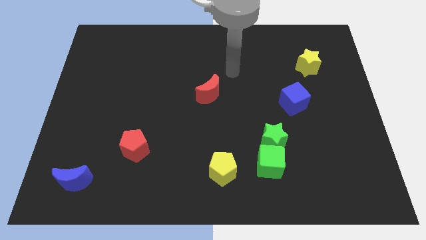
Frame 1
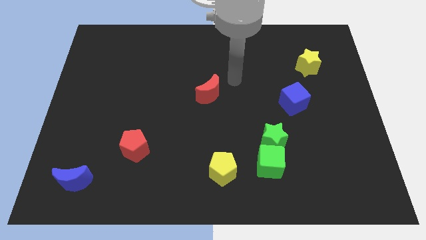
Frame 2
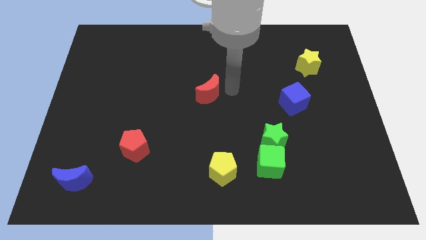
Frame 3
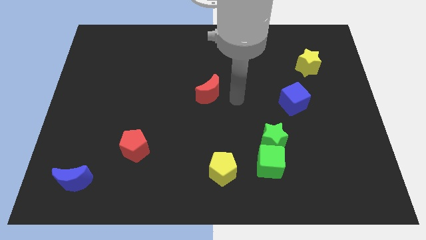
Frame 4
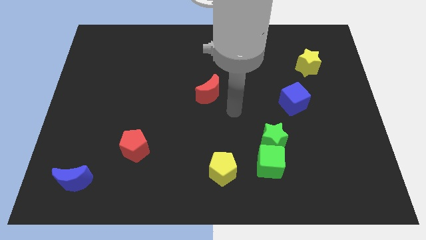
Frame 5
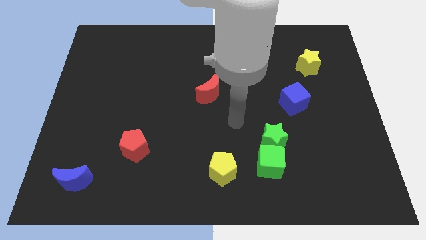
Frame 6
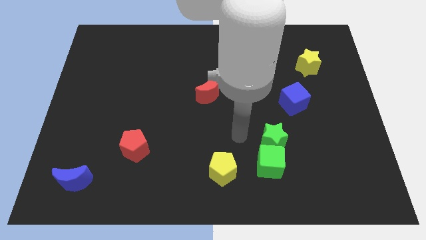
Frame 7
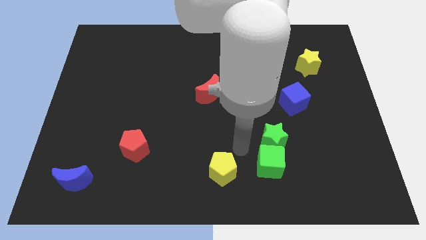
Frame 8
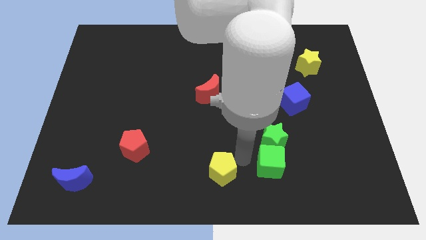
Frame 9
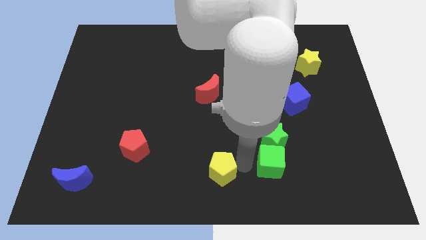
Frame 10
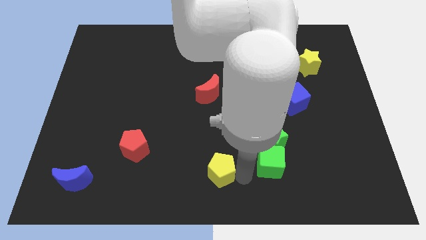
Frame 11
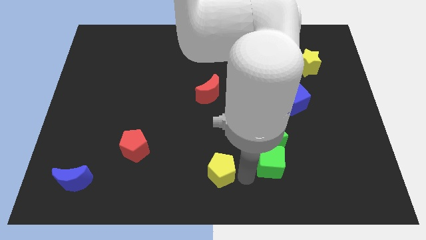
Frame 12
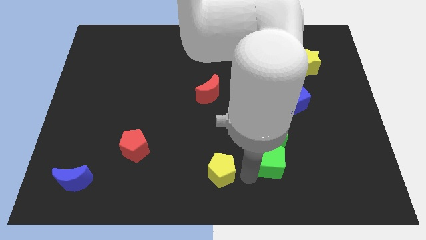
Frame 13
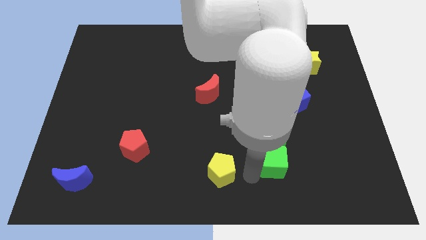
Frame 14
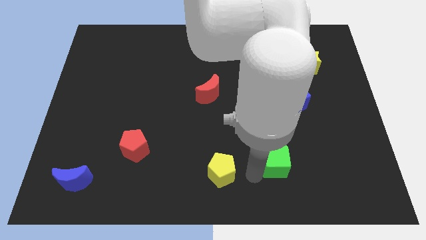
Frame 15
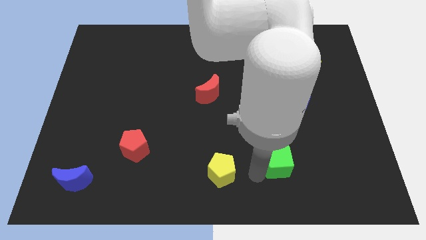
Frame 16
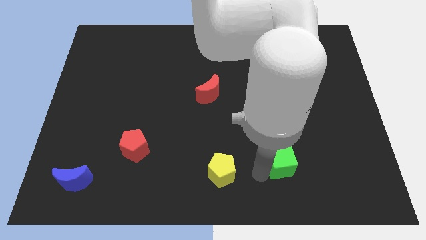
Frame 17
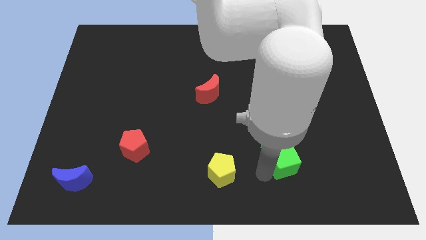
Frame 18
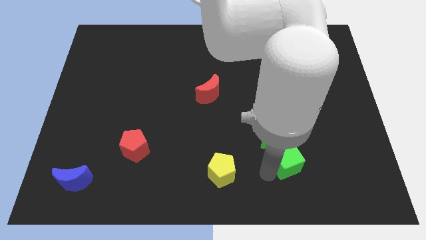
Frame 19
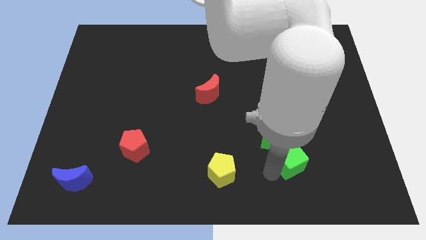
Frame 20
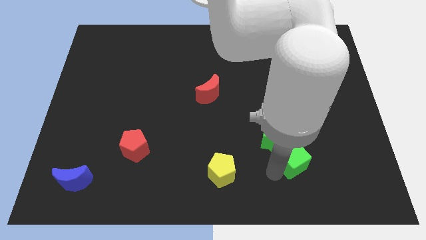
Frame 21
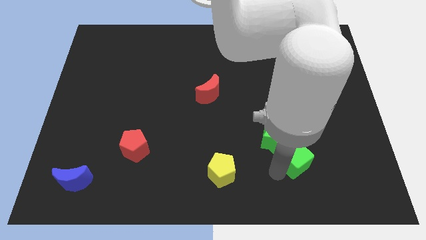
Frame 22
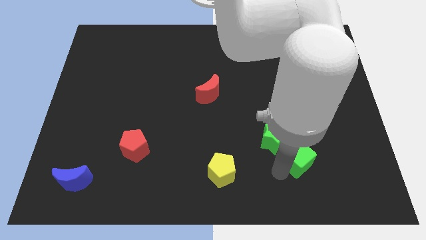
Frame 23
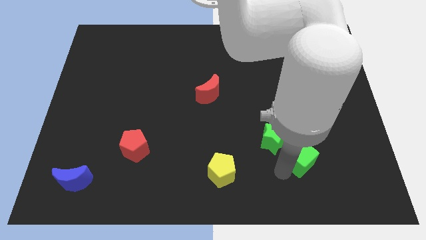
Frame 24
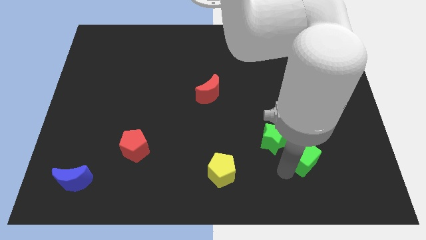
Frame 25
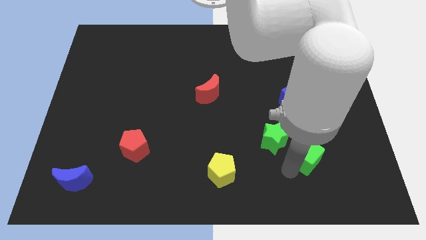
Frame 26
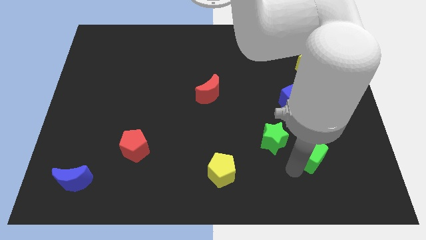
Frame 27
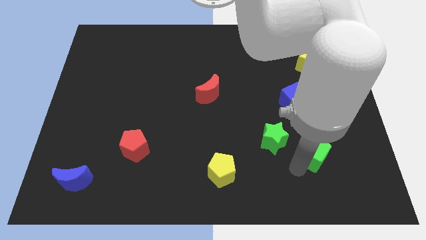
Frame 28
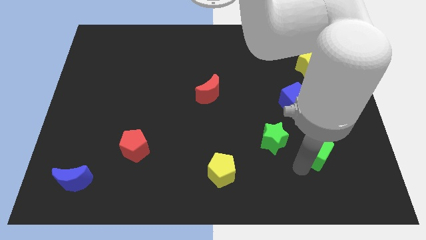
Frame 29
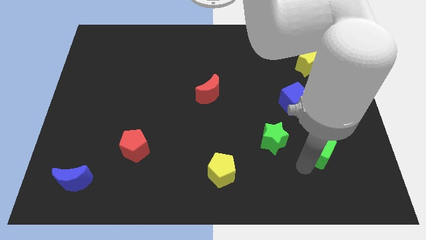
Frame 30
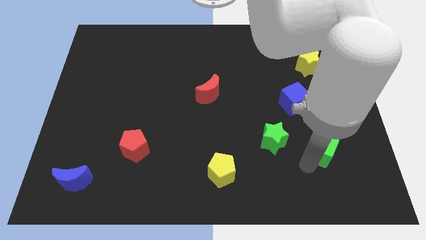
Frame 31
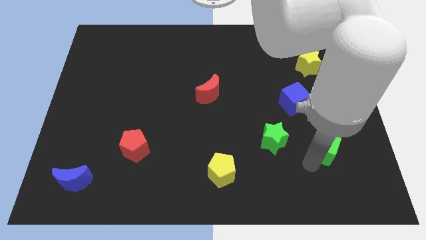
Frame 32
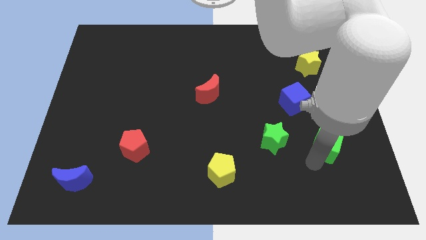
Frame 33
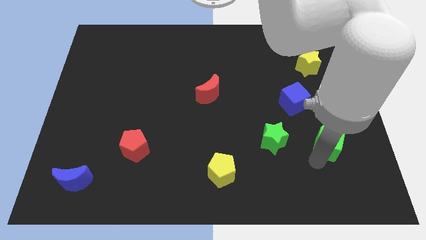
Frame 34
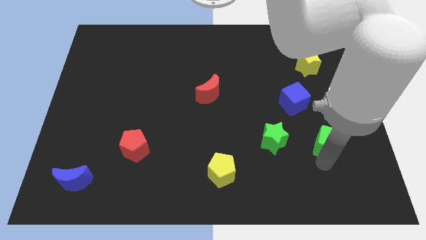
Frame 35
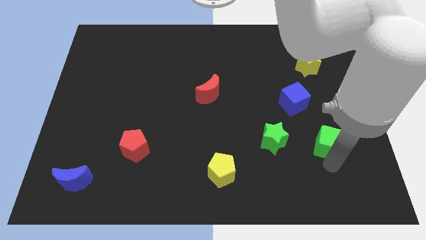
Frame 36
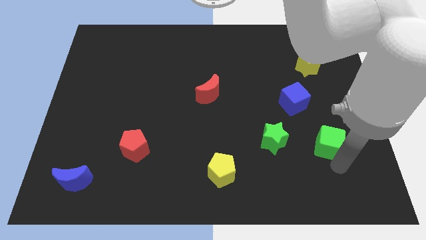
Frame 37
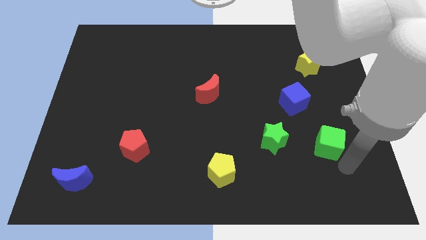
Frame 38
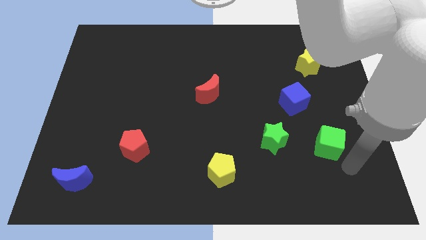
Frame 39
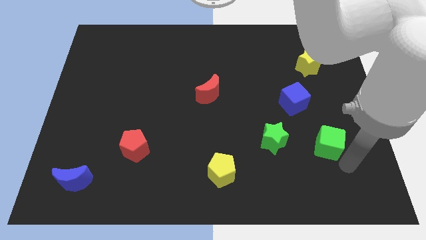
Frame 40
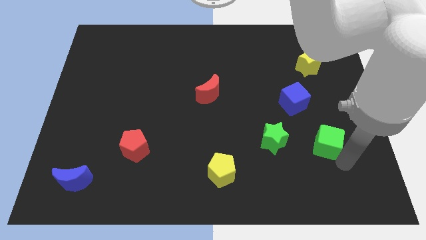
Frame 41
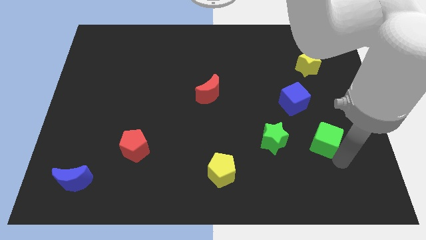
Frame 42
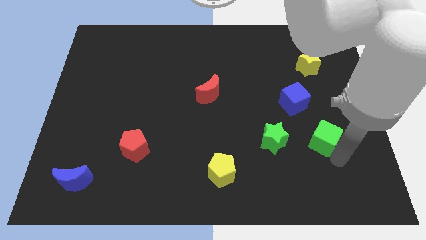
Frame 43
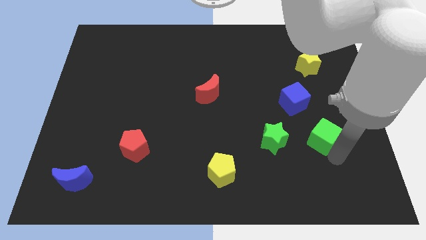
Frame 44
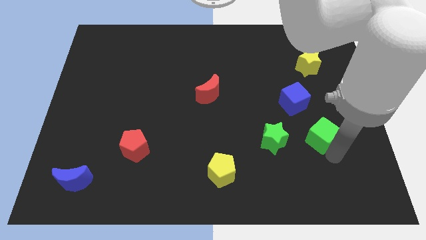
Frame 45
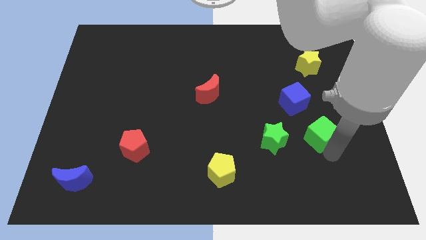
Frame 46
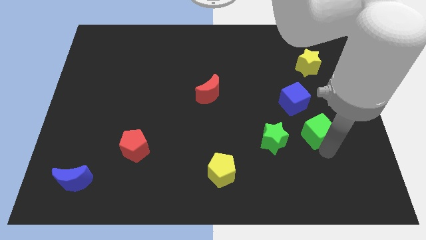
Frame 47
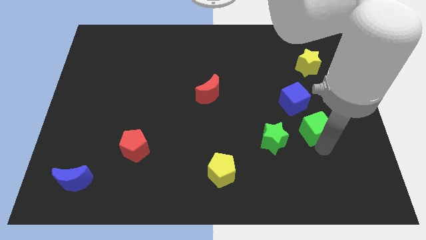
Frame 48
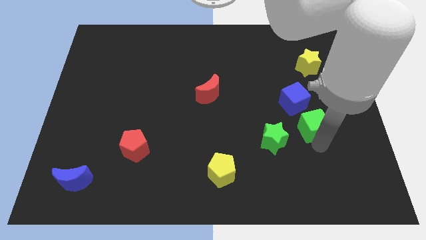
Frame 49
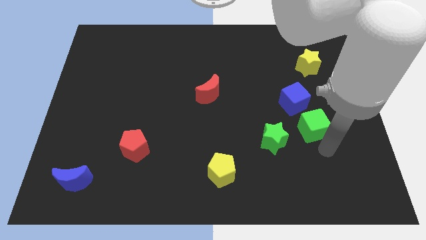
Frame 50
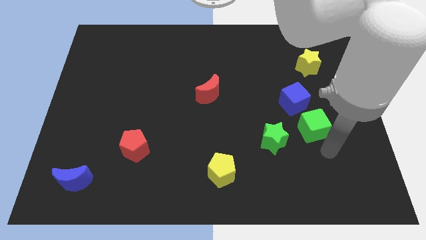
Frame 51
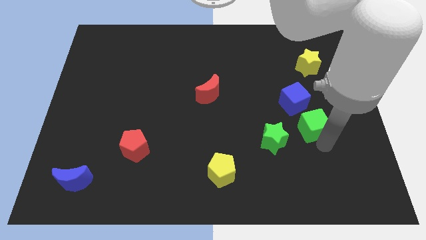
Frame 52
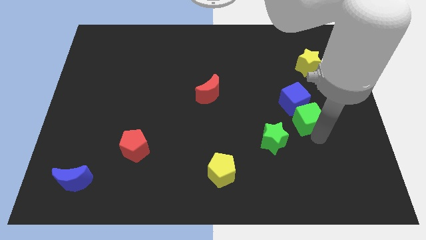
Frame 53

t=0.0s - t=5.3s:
slide the green cube close to the blue cube

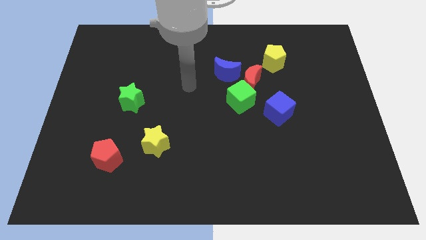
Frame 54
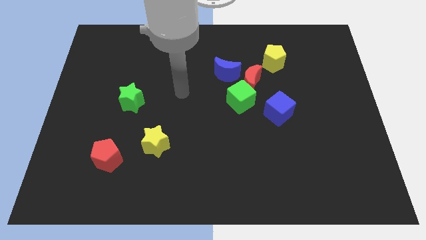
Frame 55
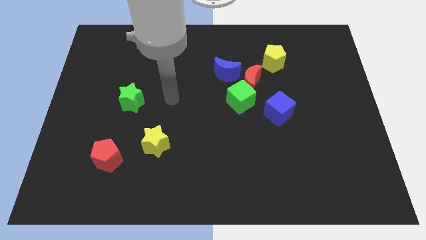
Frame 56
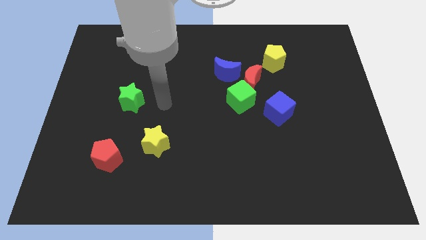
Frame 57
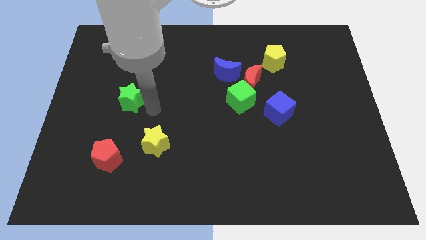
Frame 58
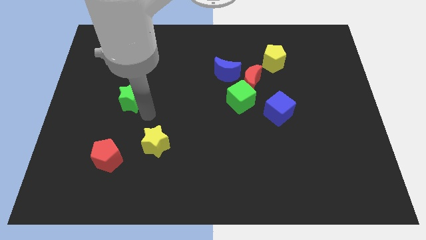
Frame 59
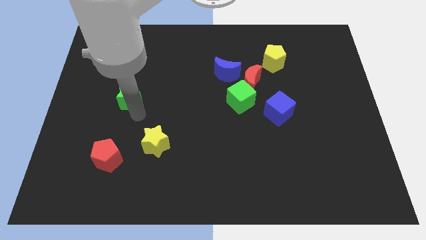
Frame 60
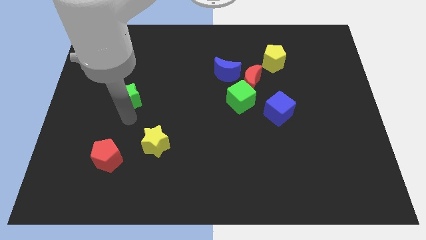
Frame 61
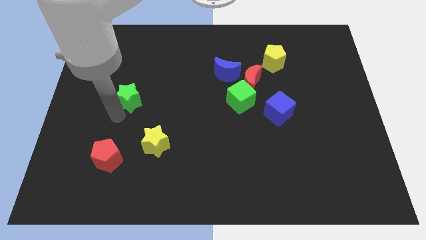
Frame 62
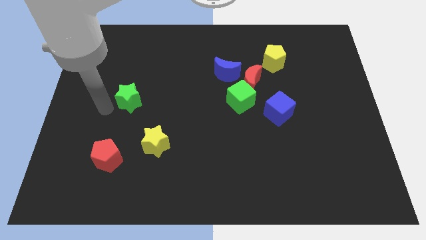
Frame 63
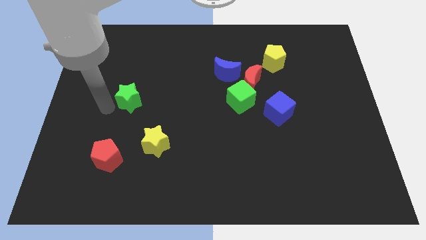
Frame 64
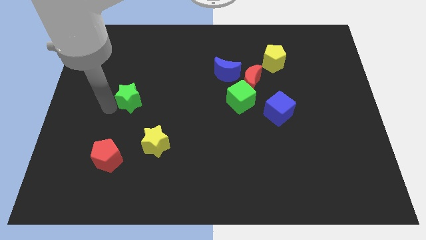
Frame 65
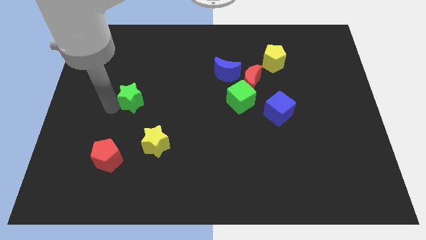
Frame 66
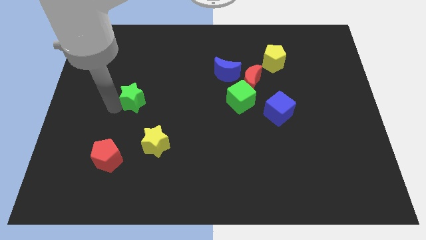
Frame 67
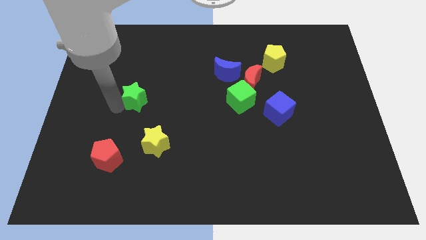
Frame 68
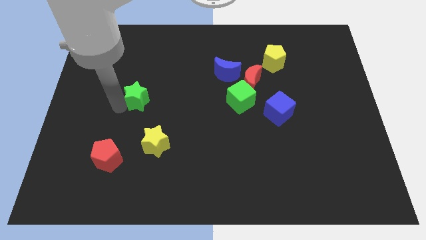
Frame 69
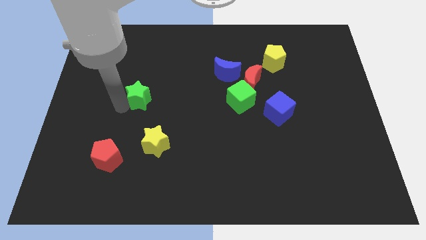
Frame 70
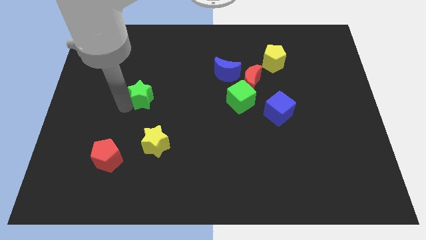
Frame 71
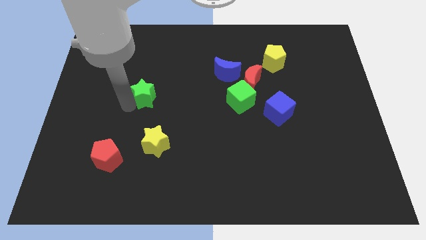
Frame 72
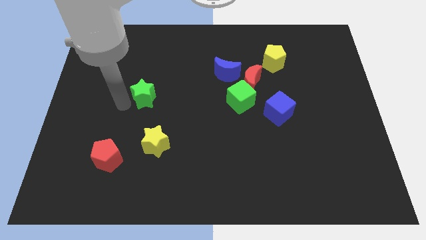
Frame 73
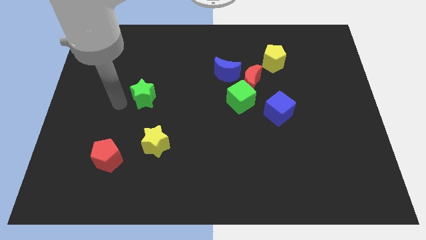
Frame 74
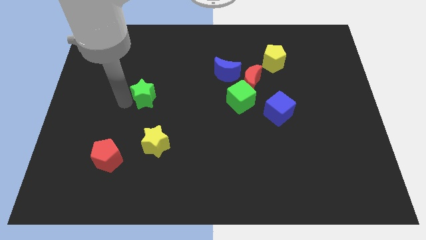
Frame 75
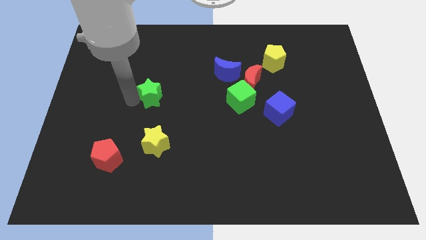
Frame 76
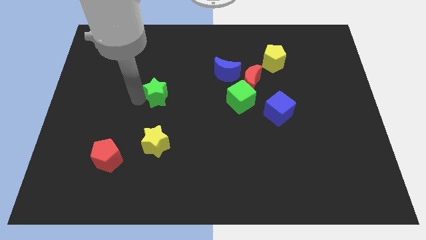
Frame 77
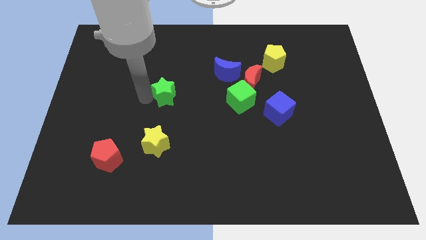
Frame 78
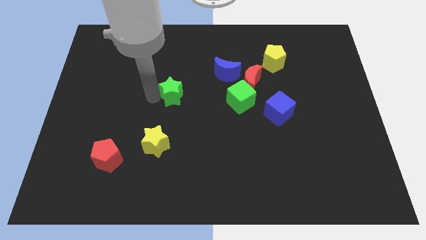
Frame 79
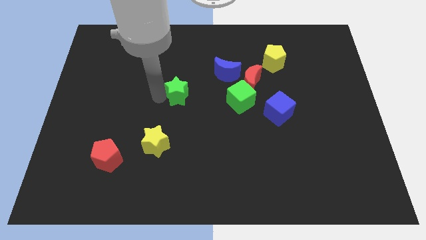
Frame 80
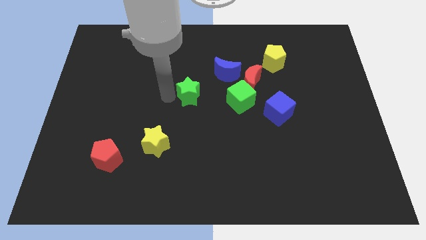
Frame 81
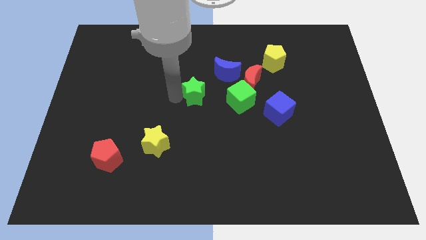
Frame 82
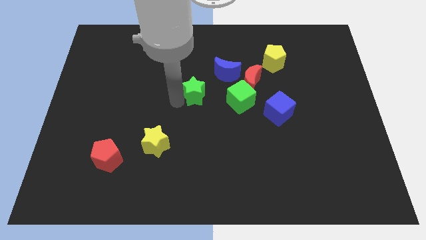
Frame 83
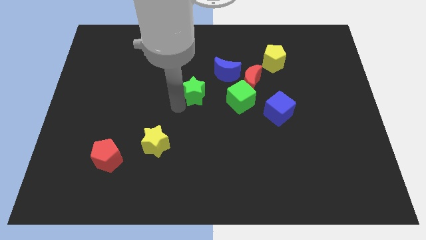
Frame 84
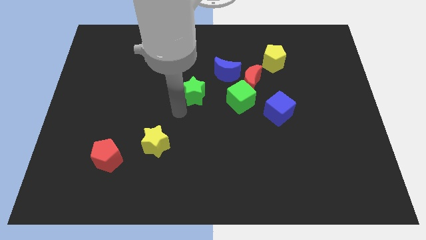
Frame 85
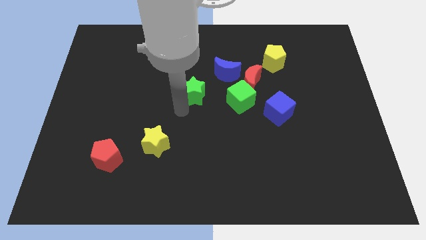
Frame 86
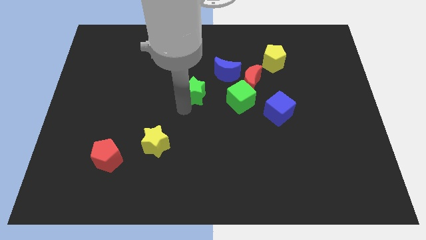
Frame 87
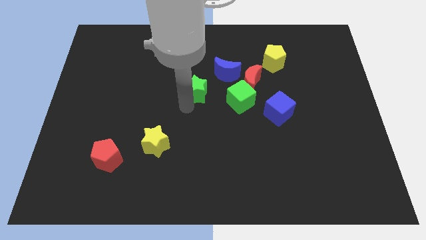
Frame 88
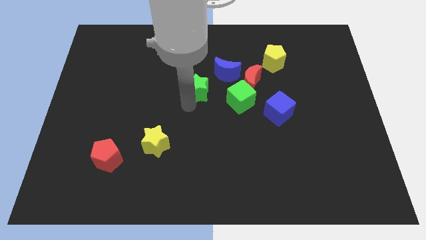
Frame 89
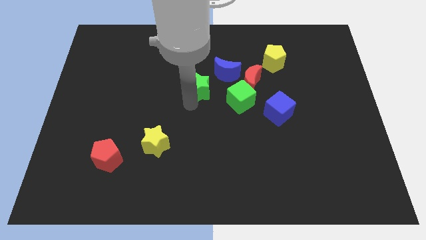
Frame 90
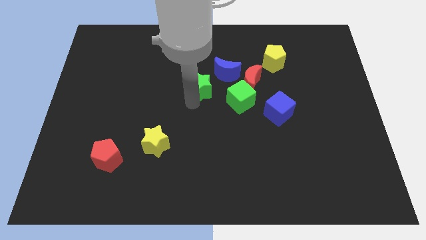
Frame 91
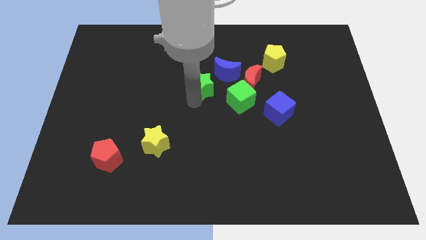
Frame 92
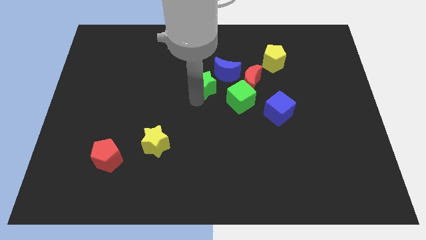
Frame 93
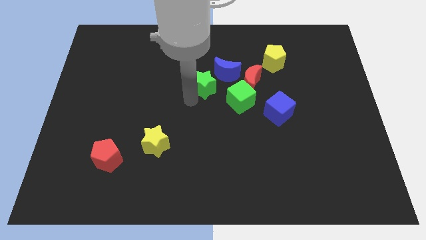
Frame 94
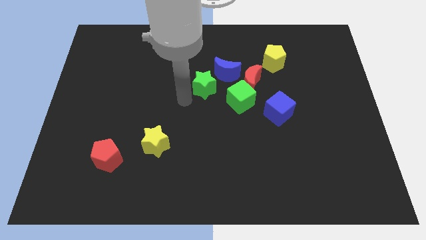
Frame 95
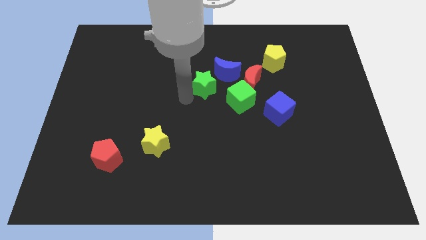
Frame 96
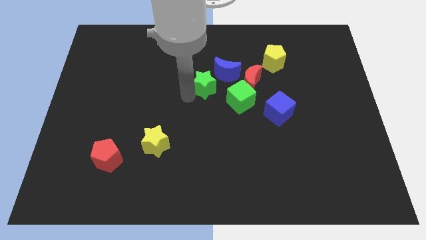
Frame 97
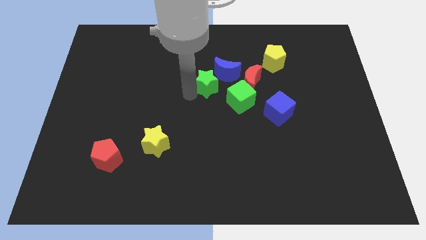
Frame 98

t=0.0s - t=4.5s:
push the green star to the blue moon
